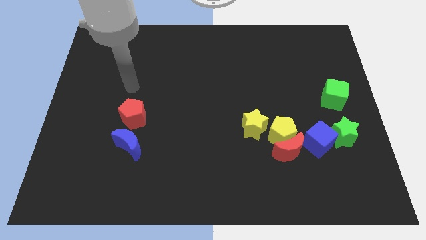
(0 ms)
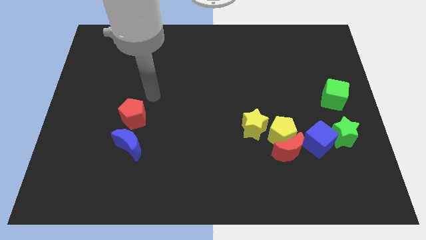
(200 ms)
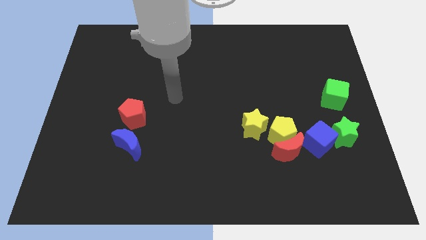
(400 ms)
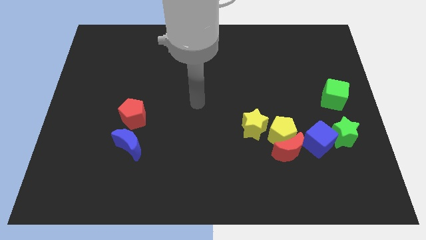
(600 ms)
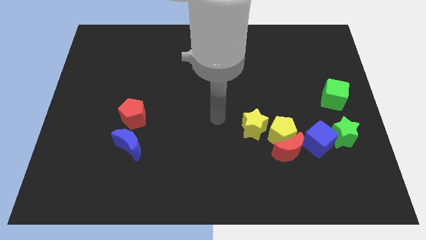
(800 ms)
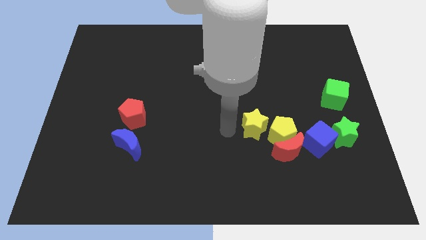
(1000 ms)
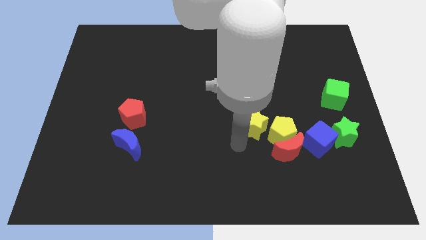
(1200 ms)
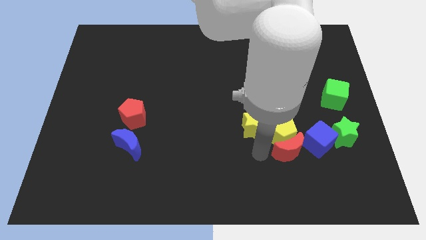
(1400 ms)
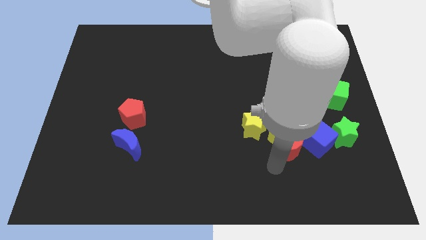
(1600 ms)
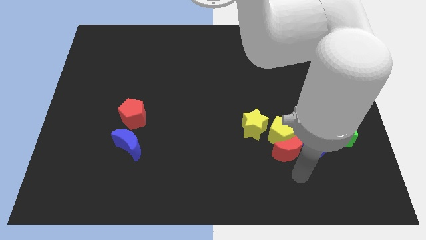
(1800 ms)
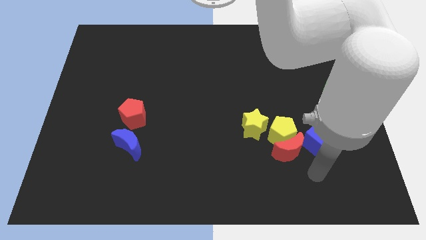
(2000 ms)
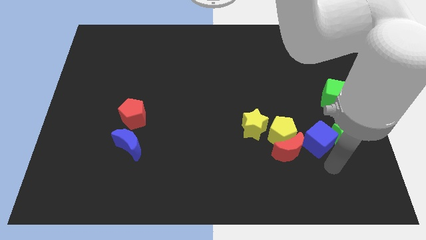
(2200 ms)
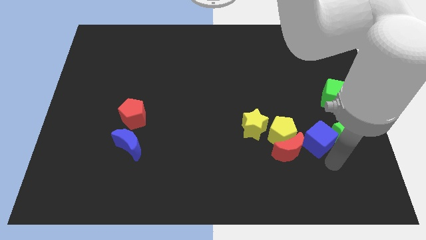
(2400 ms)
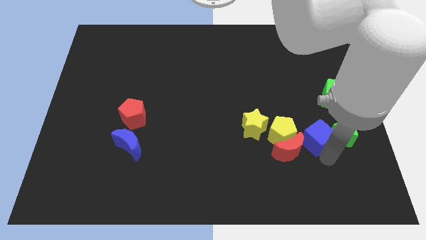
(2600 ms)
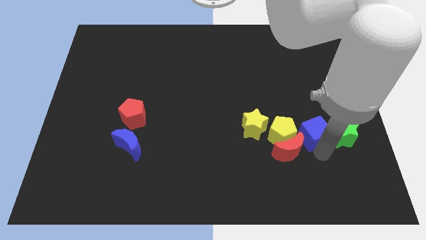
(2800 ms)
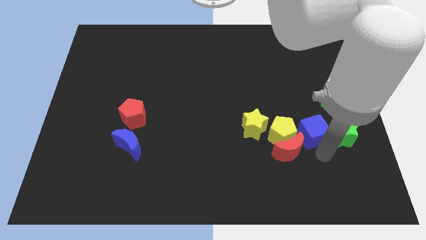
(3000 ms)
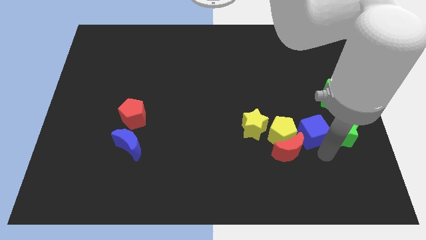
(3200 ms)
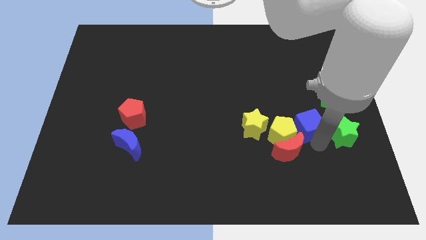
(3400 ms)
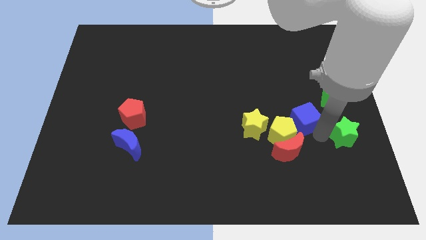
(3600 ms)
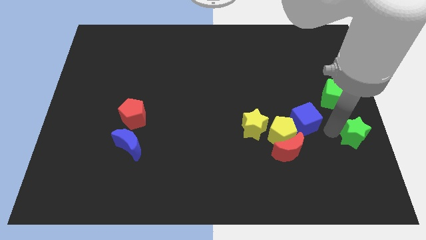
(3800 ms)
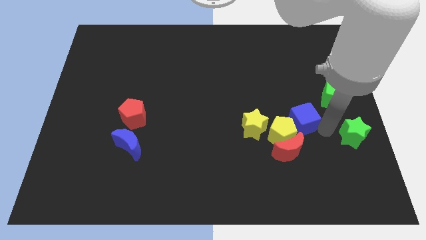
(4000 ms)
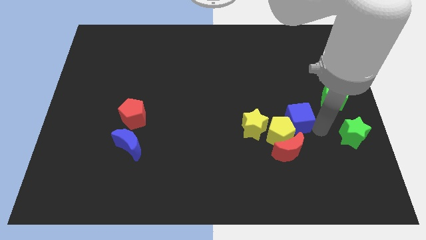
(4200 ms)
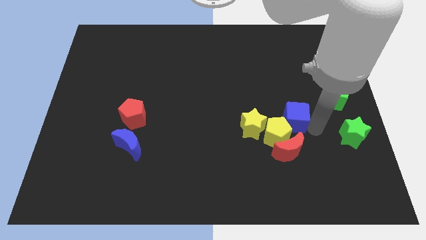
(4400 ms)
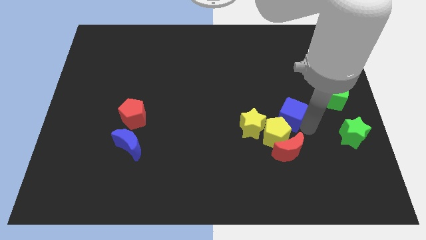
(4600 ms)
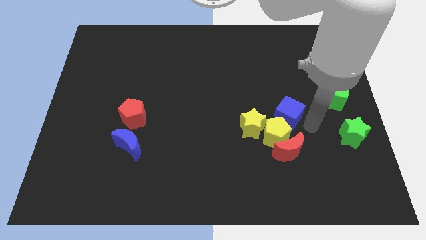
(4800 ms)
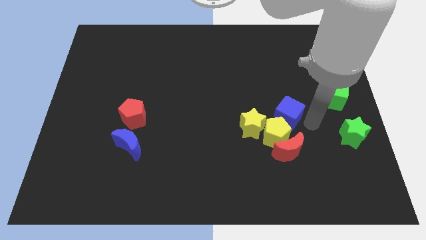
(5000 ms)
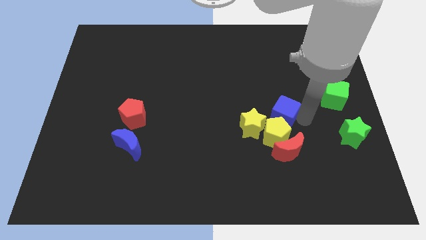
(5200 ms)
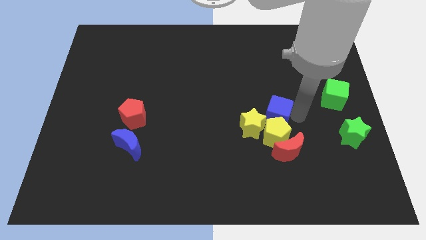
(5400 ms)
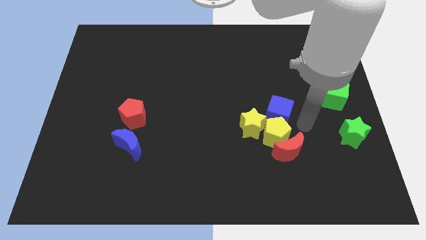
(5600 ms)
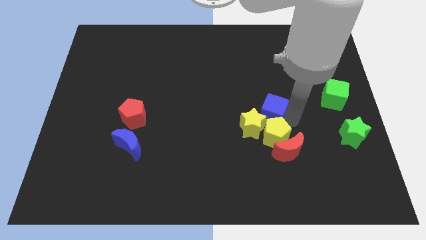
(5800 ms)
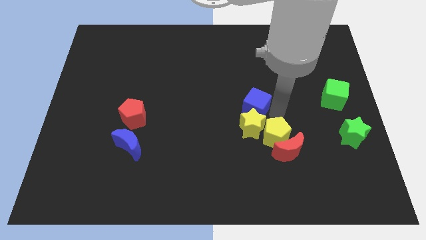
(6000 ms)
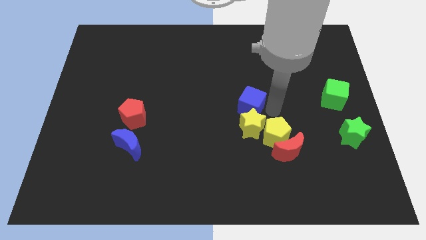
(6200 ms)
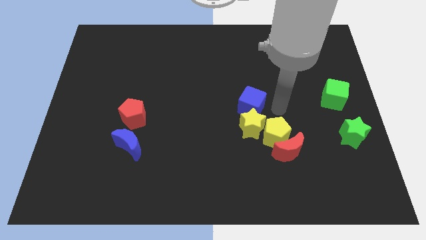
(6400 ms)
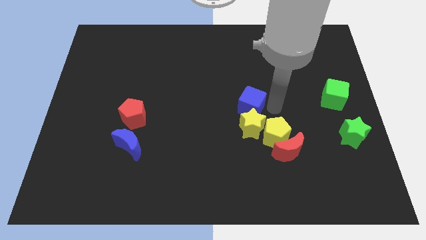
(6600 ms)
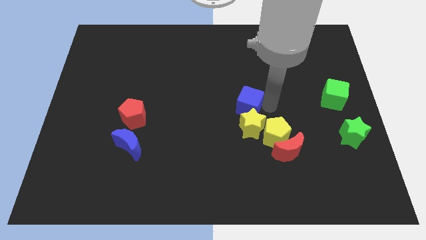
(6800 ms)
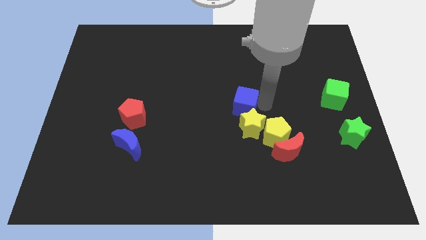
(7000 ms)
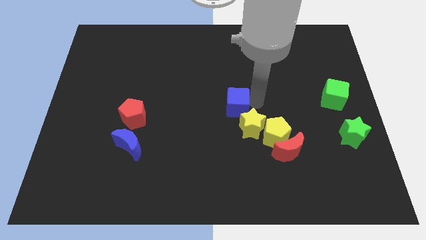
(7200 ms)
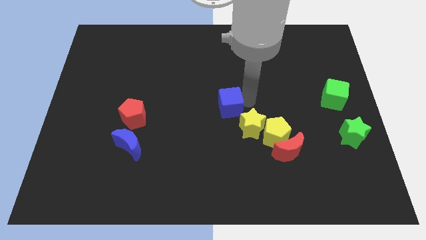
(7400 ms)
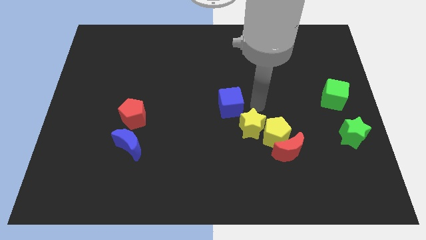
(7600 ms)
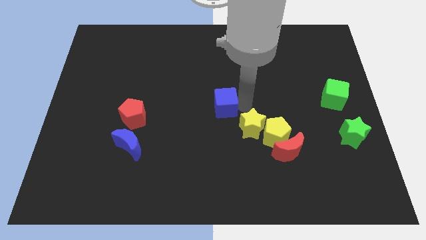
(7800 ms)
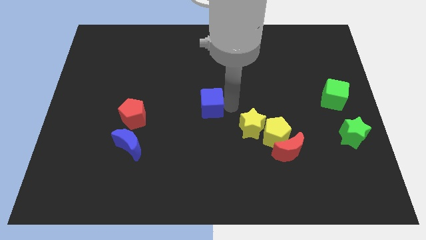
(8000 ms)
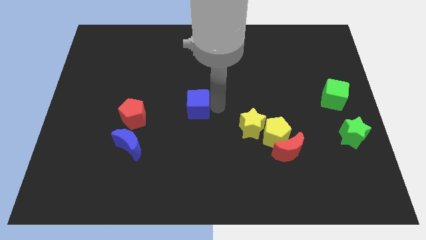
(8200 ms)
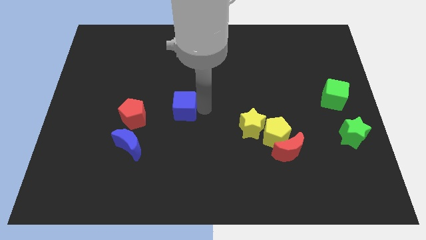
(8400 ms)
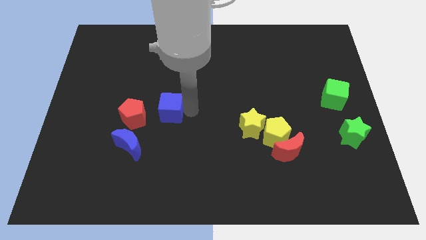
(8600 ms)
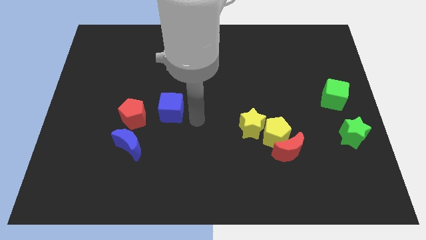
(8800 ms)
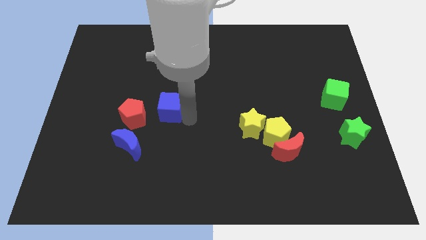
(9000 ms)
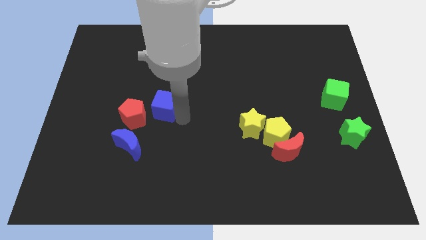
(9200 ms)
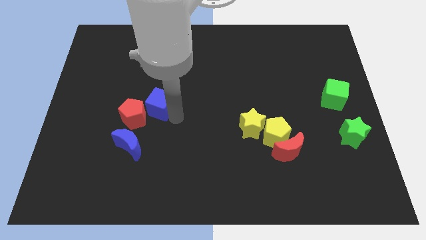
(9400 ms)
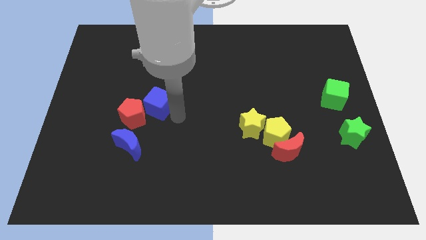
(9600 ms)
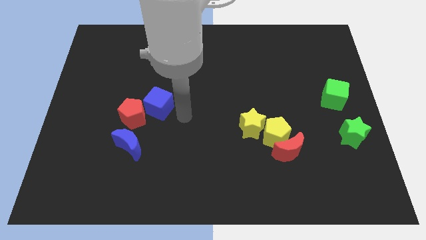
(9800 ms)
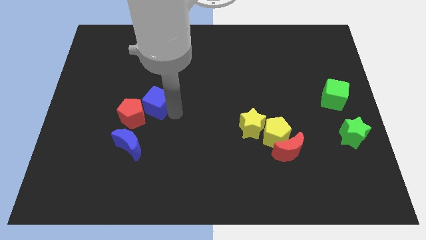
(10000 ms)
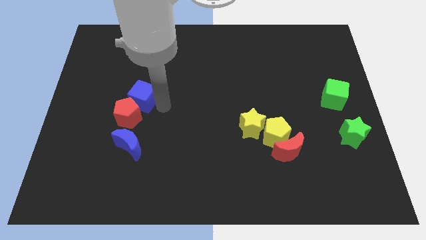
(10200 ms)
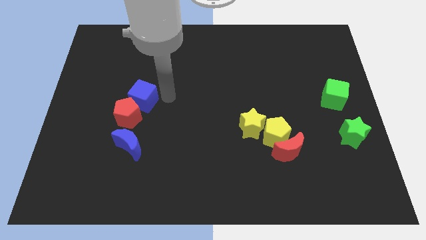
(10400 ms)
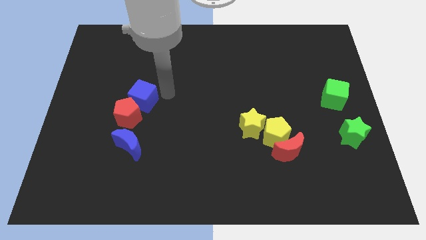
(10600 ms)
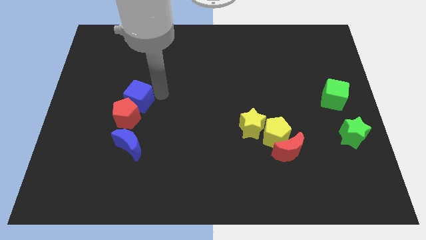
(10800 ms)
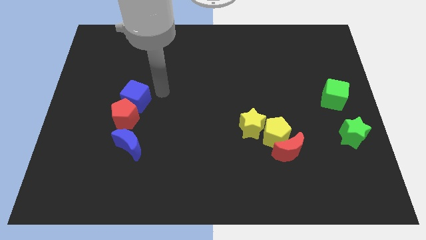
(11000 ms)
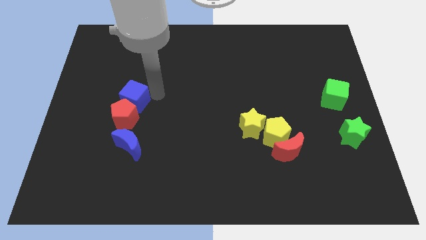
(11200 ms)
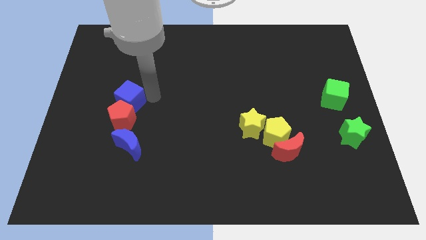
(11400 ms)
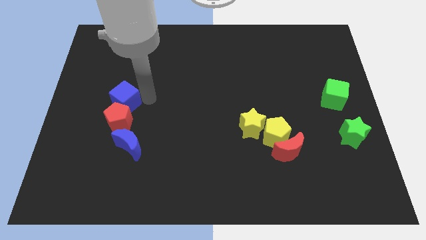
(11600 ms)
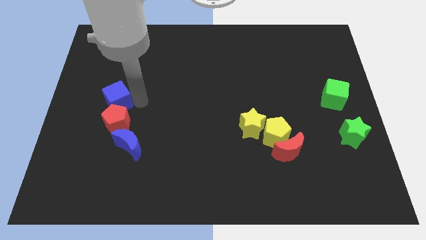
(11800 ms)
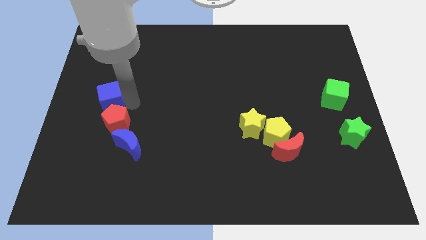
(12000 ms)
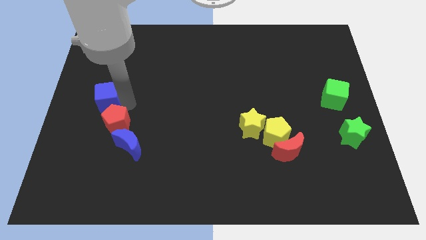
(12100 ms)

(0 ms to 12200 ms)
push the blue cube to the center left
